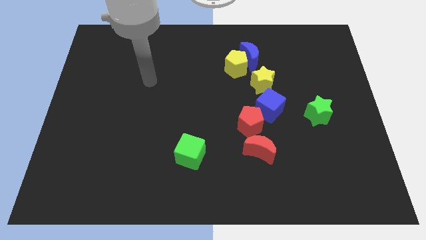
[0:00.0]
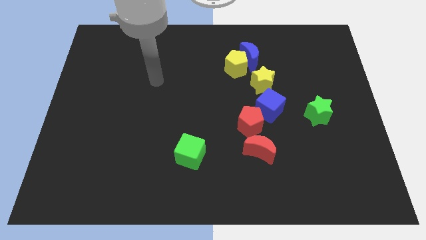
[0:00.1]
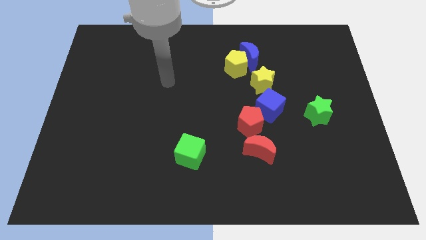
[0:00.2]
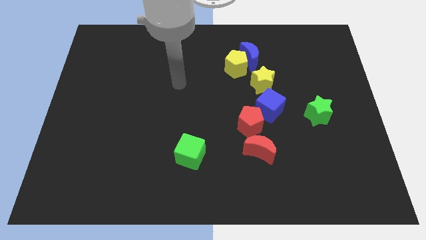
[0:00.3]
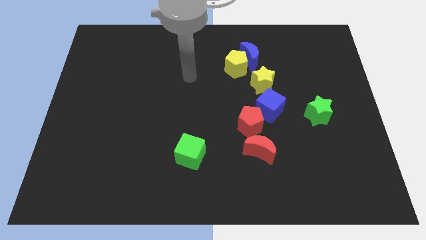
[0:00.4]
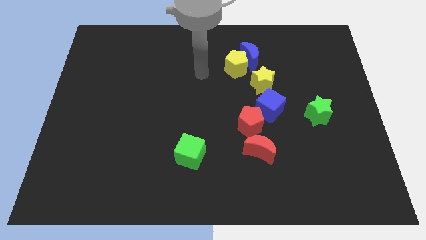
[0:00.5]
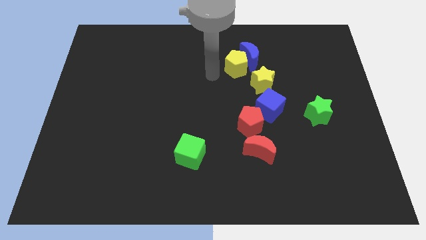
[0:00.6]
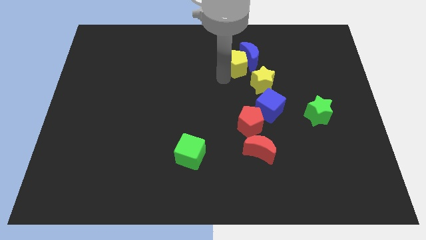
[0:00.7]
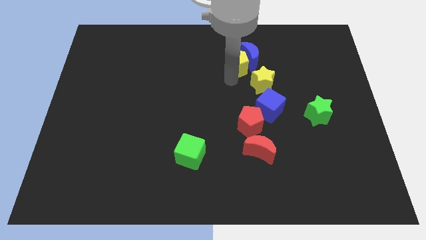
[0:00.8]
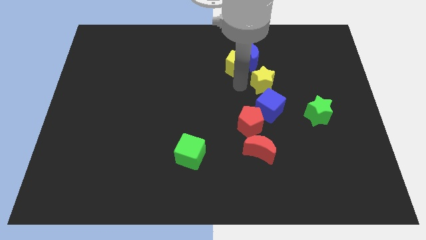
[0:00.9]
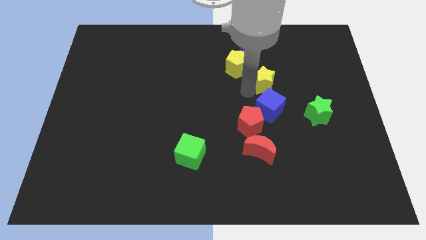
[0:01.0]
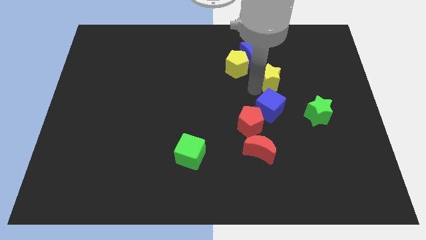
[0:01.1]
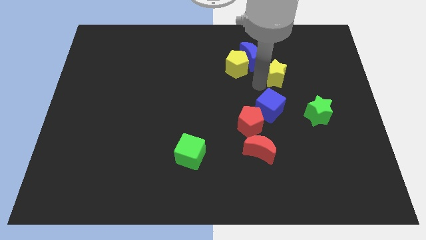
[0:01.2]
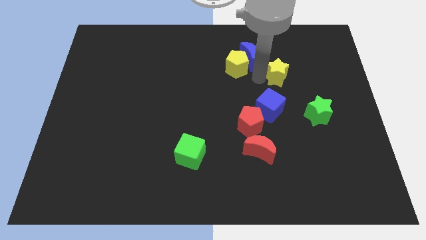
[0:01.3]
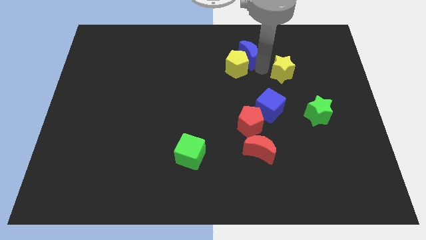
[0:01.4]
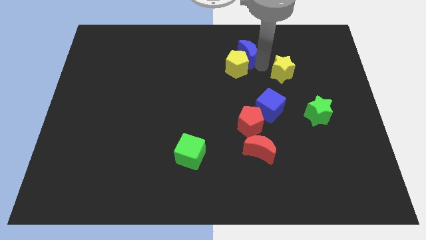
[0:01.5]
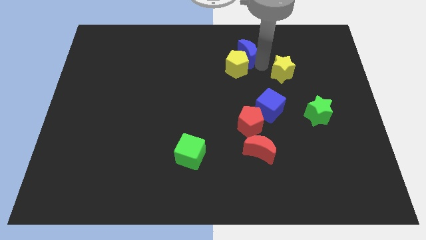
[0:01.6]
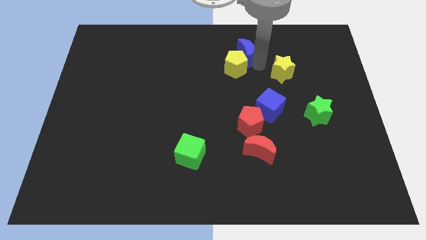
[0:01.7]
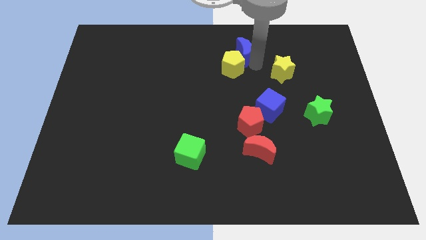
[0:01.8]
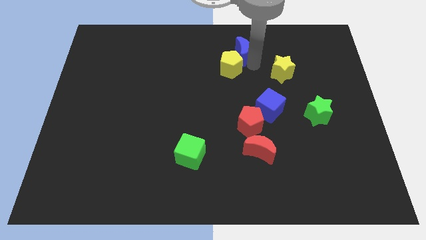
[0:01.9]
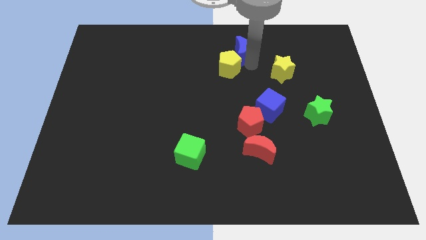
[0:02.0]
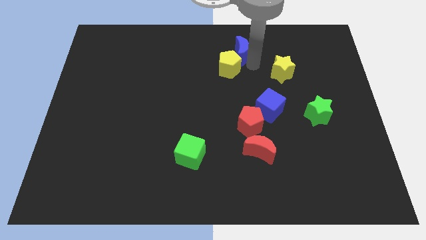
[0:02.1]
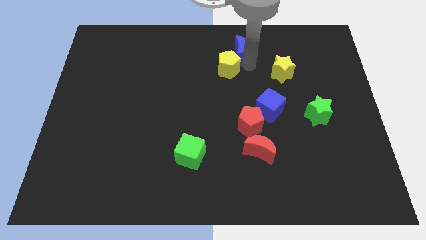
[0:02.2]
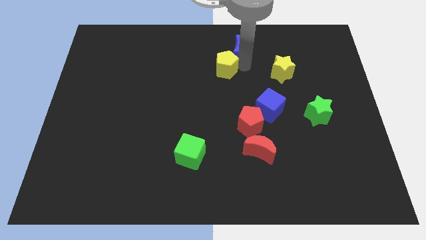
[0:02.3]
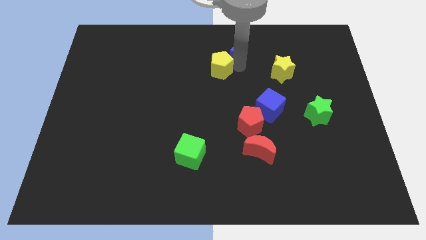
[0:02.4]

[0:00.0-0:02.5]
separate the yellow pentagon from the blue moon and yellow star

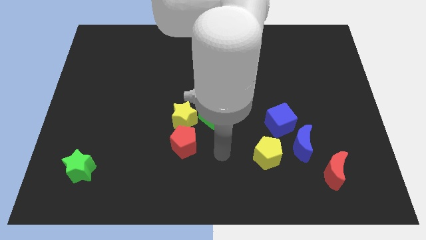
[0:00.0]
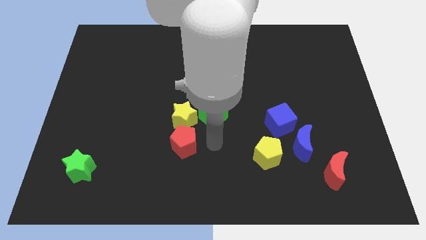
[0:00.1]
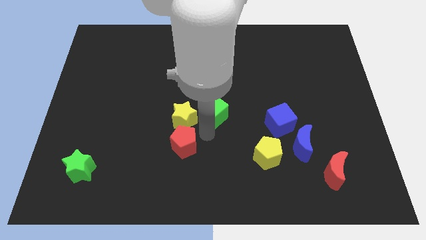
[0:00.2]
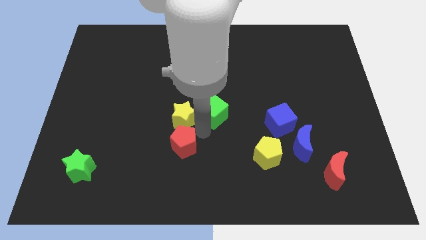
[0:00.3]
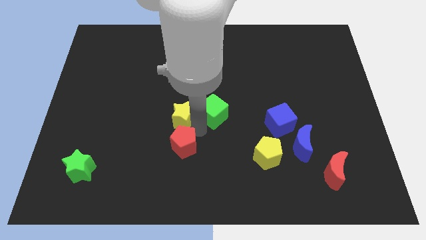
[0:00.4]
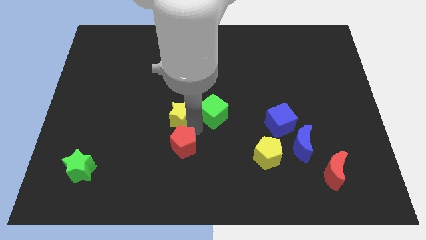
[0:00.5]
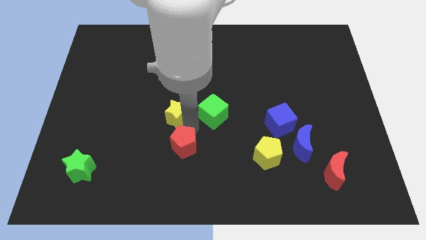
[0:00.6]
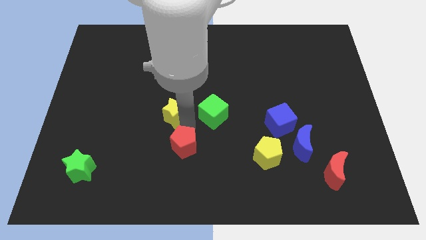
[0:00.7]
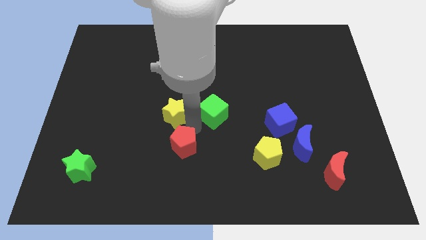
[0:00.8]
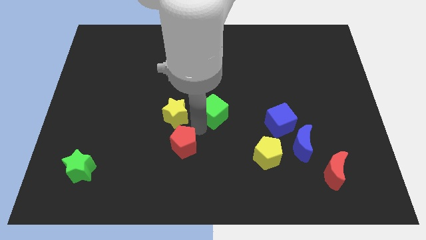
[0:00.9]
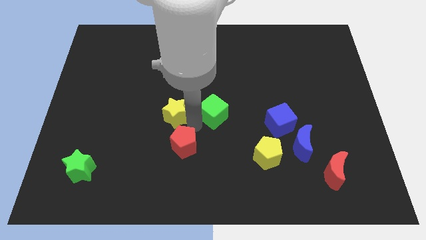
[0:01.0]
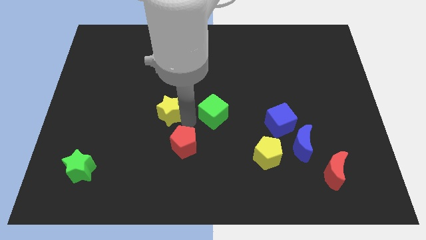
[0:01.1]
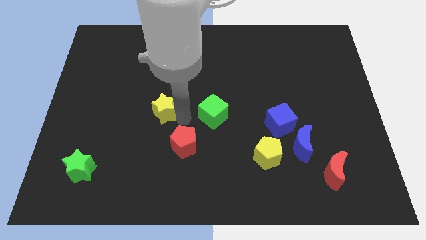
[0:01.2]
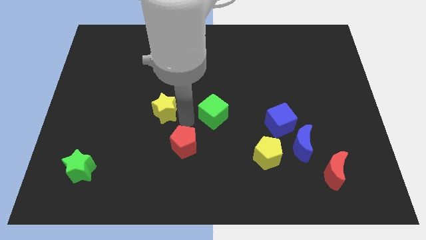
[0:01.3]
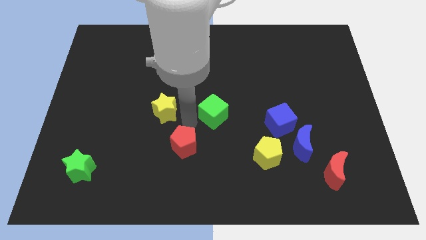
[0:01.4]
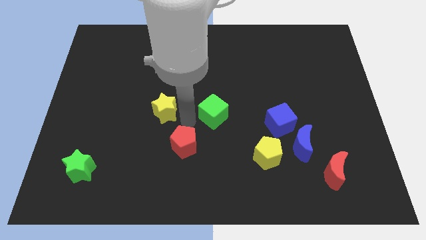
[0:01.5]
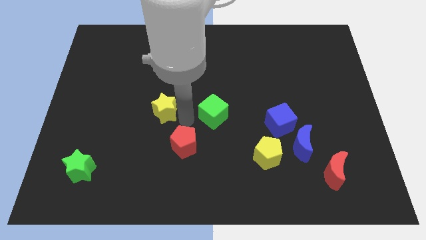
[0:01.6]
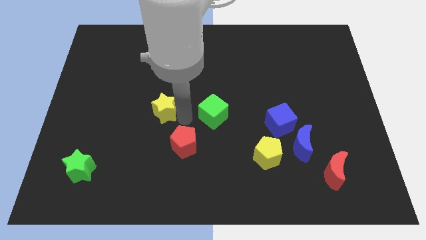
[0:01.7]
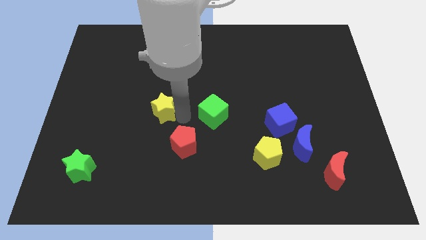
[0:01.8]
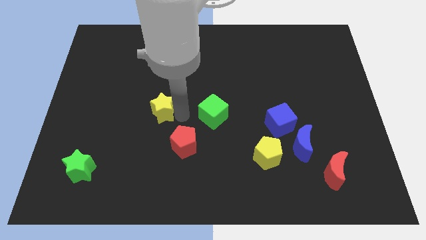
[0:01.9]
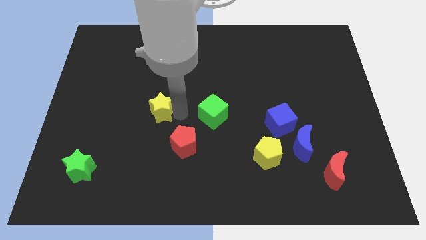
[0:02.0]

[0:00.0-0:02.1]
separate the yellow star from the green cube and red pentagon

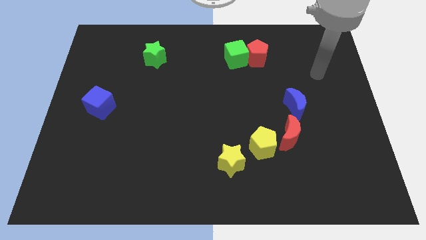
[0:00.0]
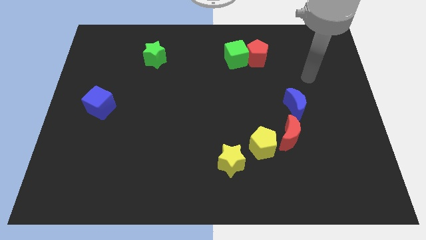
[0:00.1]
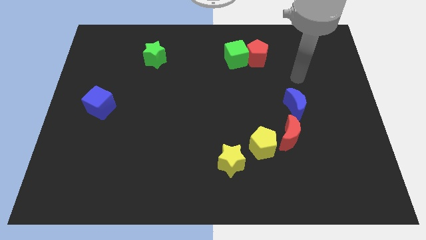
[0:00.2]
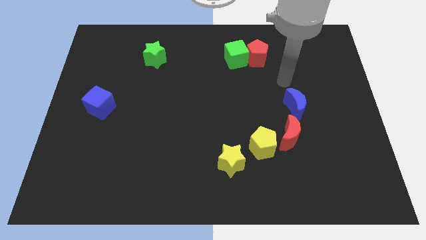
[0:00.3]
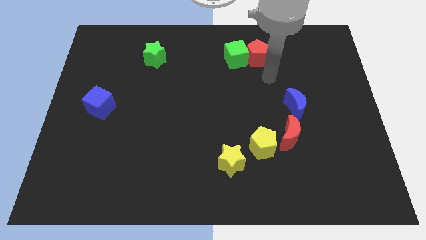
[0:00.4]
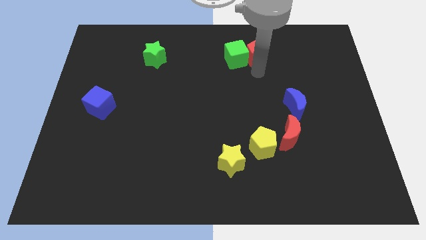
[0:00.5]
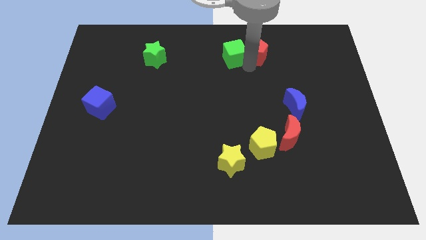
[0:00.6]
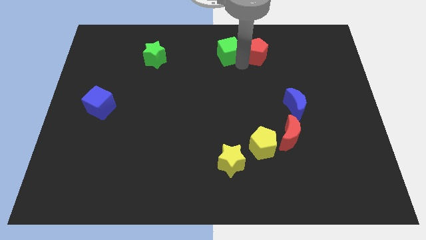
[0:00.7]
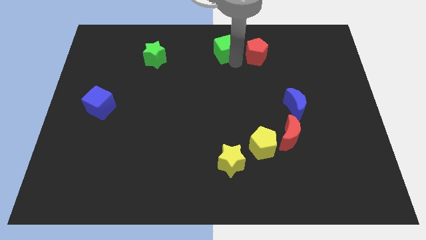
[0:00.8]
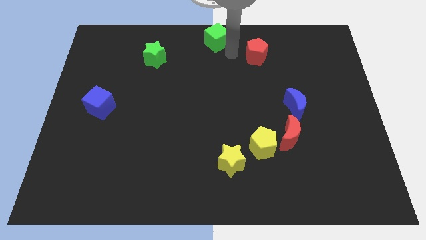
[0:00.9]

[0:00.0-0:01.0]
pull the red pentagon apart from the green cube

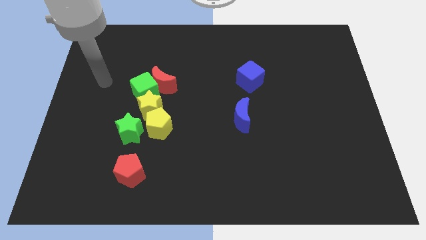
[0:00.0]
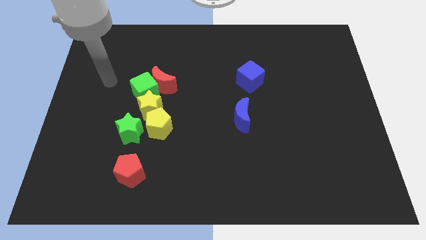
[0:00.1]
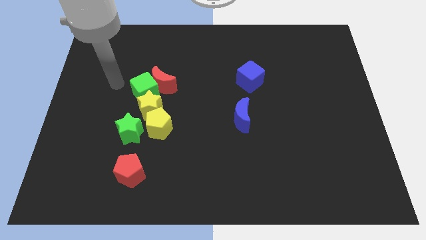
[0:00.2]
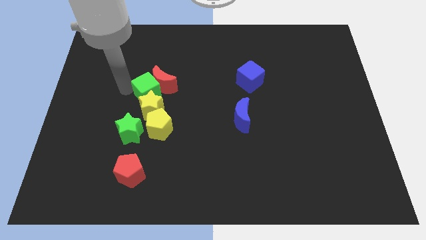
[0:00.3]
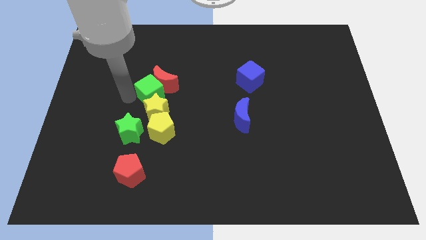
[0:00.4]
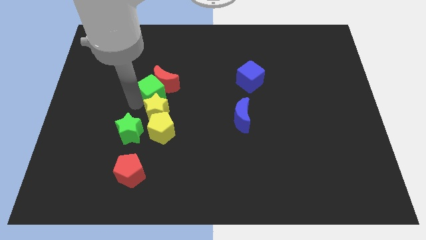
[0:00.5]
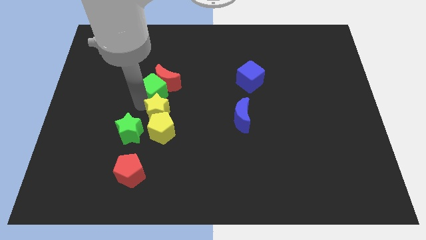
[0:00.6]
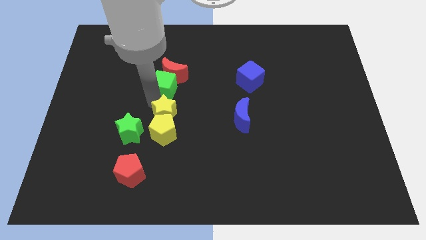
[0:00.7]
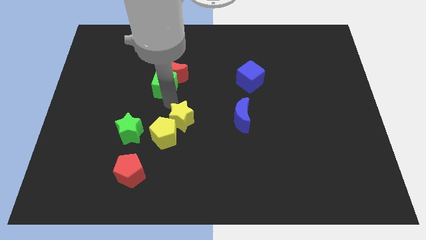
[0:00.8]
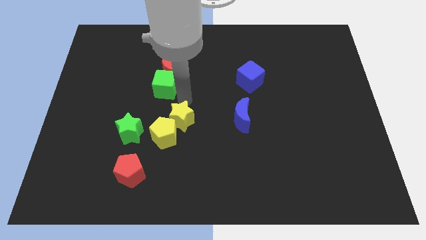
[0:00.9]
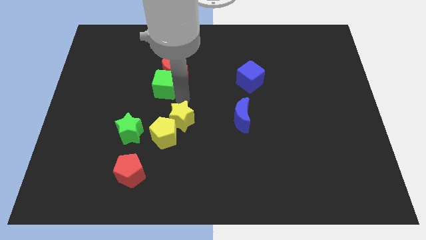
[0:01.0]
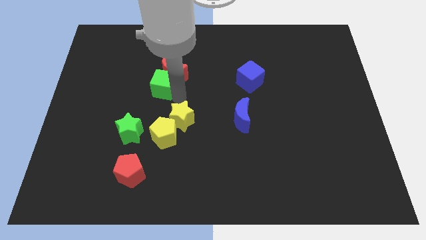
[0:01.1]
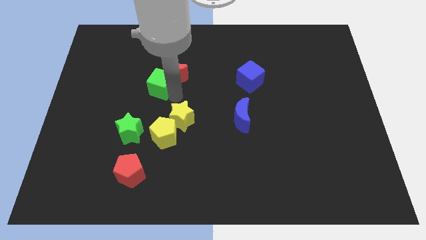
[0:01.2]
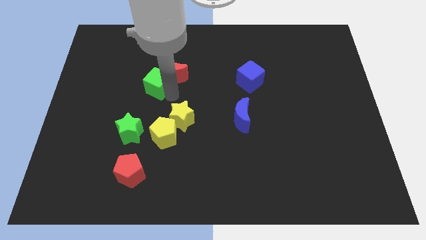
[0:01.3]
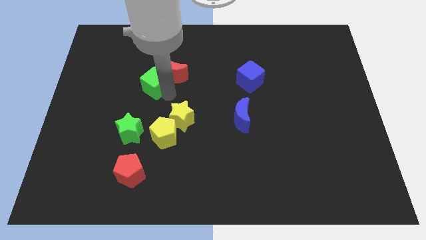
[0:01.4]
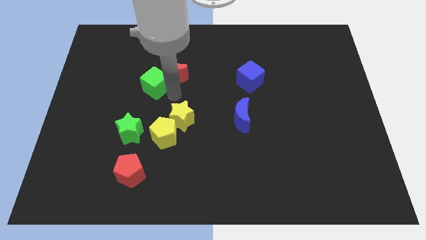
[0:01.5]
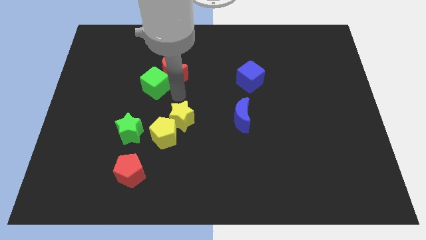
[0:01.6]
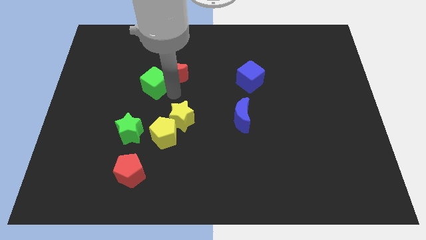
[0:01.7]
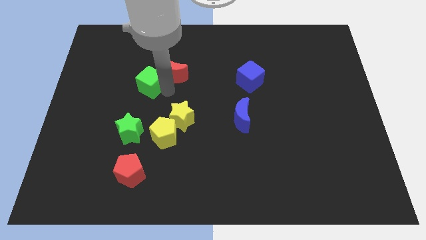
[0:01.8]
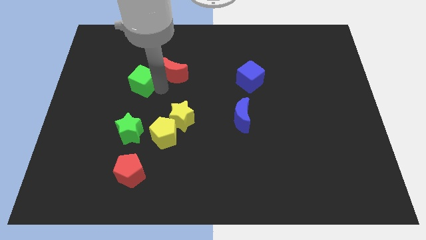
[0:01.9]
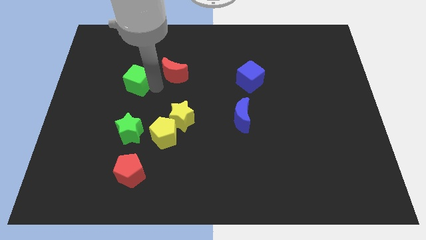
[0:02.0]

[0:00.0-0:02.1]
move the green cube away from the red moon and yellow star

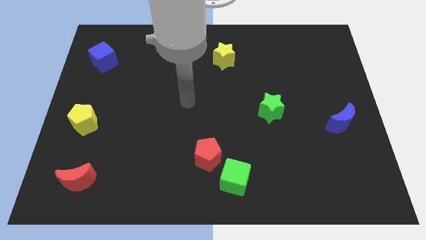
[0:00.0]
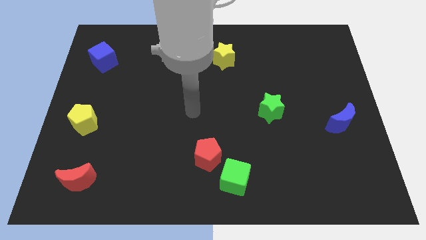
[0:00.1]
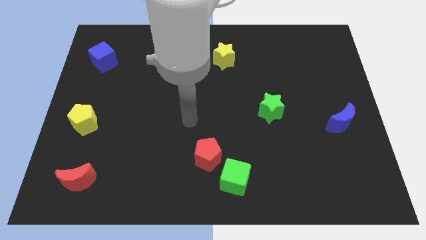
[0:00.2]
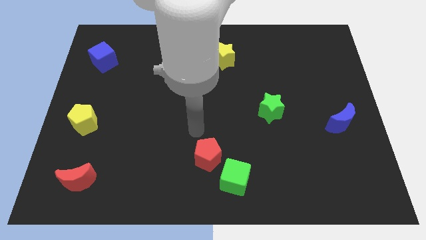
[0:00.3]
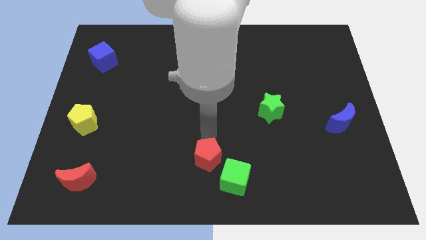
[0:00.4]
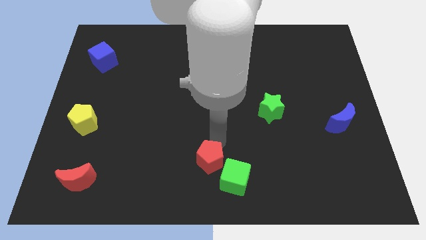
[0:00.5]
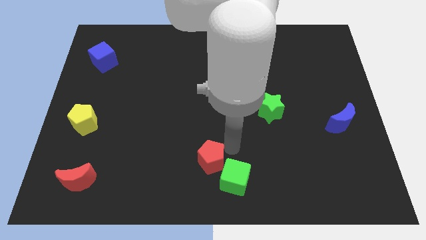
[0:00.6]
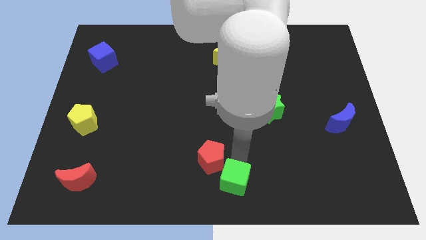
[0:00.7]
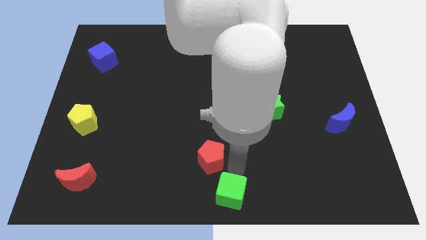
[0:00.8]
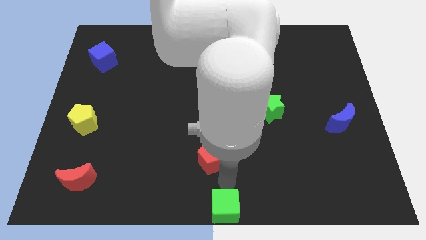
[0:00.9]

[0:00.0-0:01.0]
move the red pentagon away from the green cube

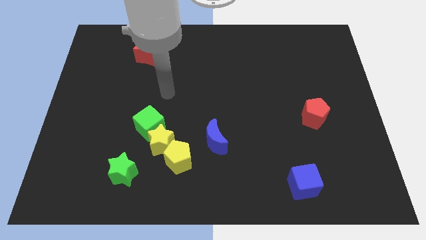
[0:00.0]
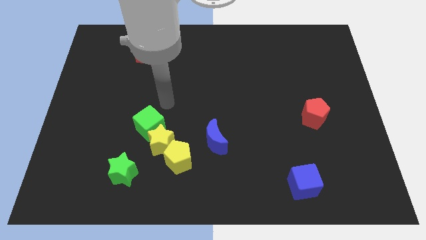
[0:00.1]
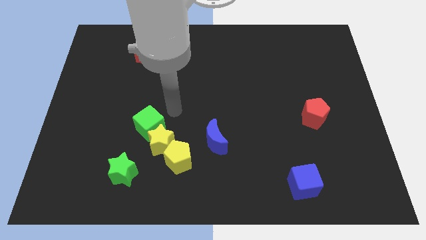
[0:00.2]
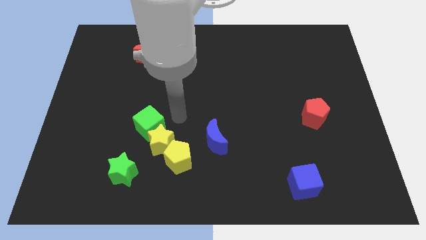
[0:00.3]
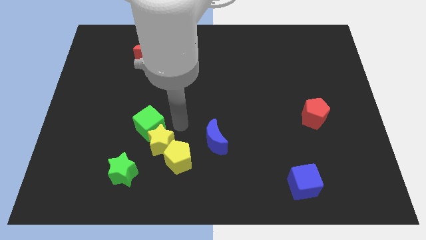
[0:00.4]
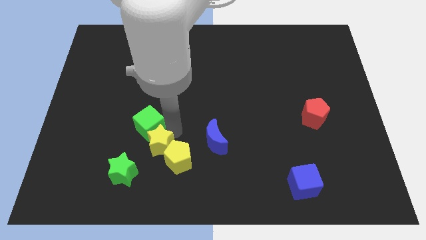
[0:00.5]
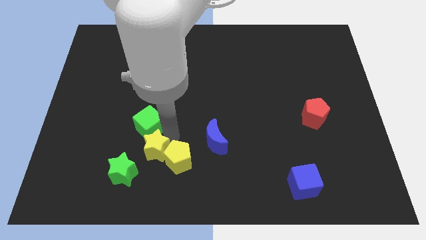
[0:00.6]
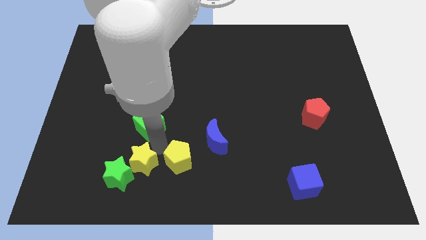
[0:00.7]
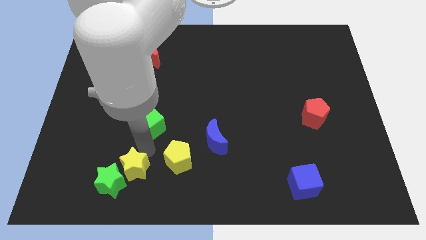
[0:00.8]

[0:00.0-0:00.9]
separate the green cube from the yellow star
